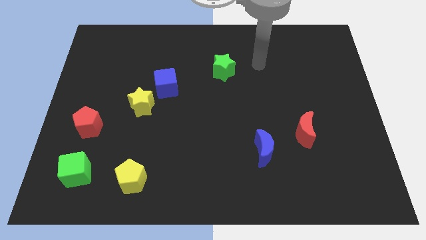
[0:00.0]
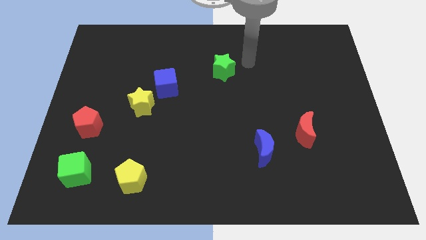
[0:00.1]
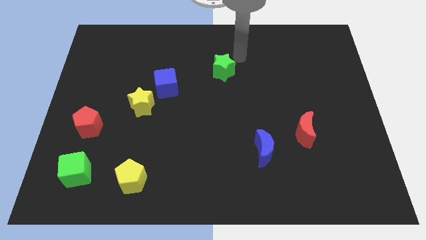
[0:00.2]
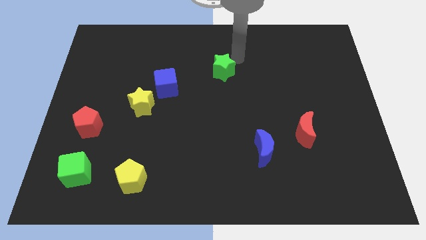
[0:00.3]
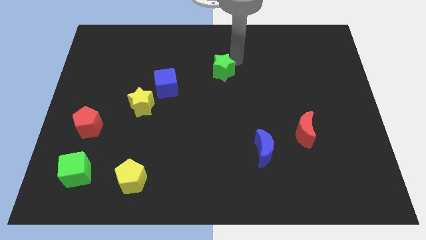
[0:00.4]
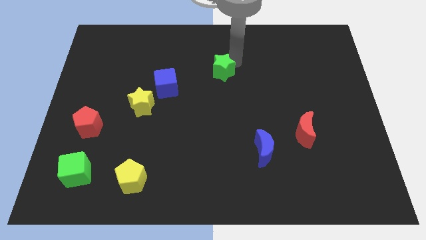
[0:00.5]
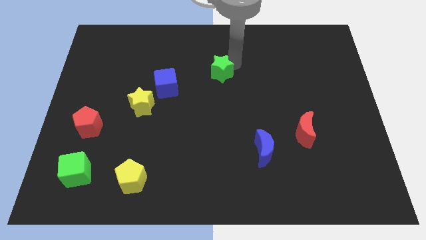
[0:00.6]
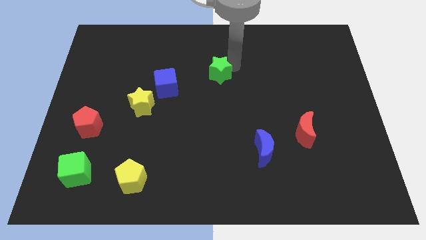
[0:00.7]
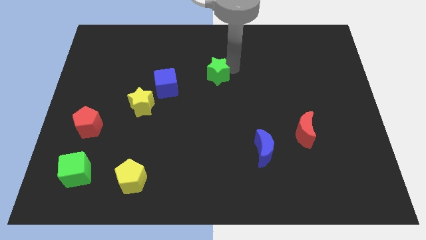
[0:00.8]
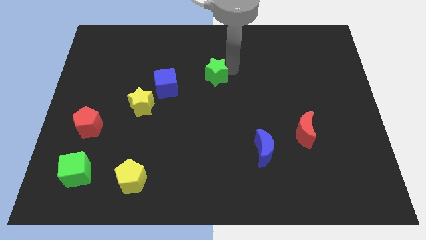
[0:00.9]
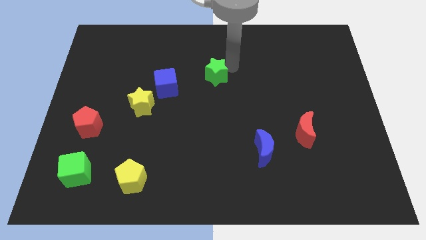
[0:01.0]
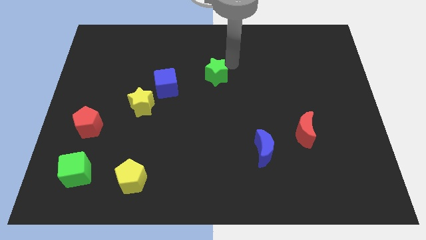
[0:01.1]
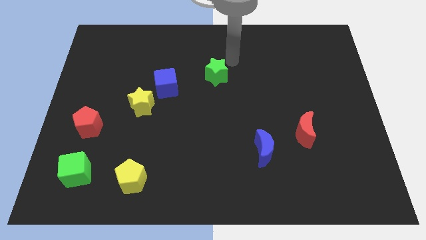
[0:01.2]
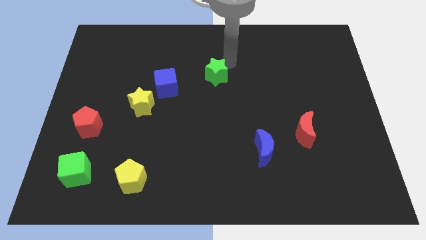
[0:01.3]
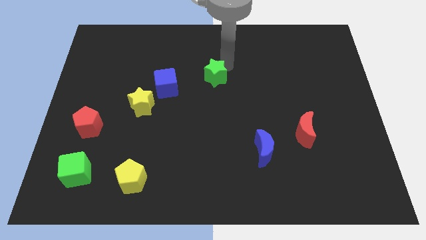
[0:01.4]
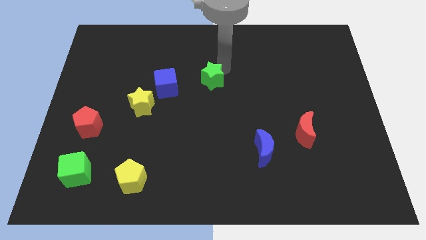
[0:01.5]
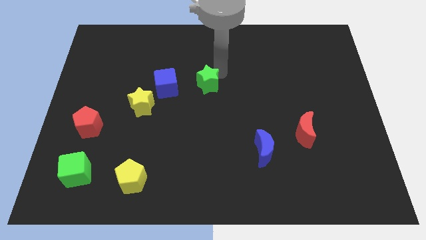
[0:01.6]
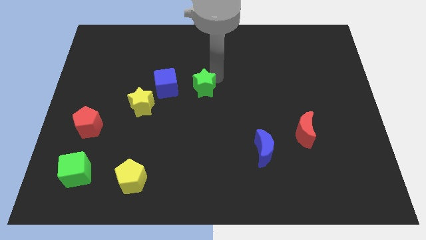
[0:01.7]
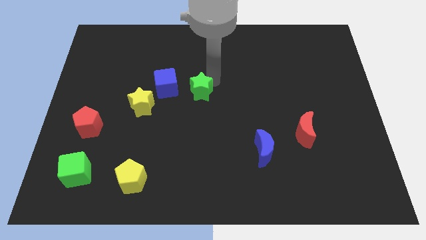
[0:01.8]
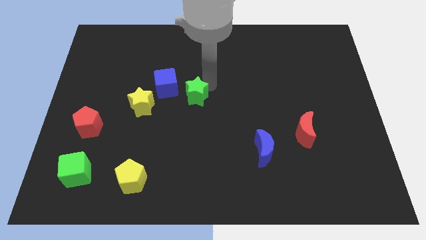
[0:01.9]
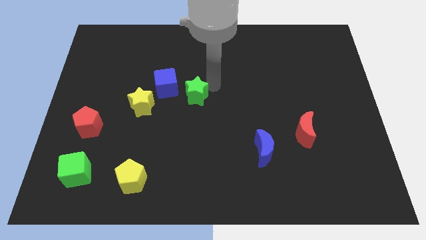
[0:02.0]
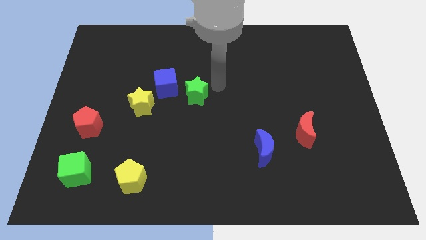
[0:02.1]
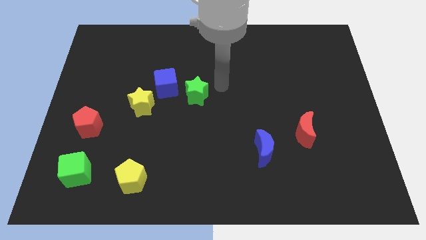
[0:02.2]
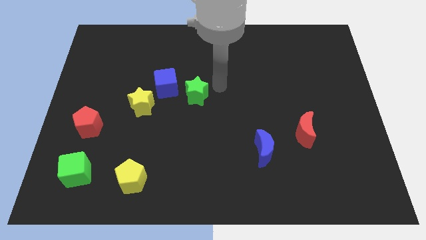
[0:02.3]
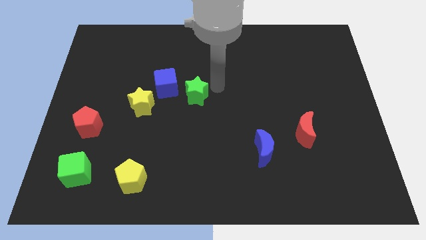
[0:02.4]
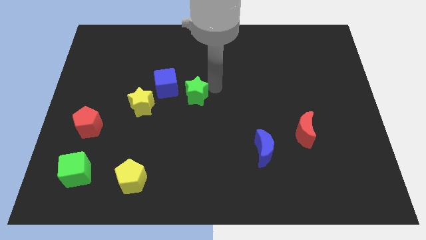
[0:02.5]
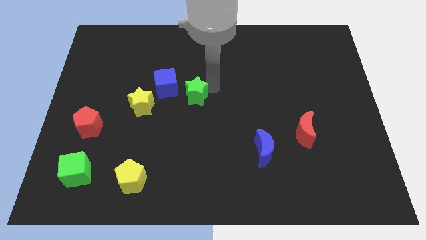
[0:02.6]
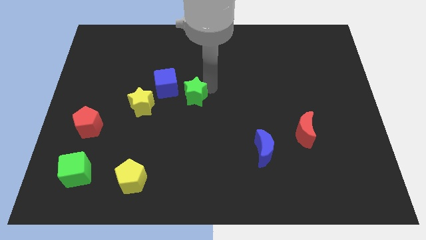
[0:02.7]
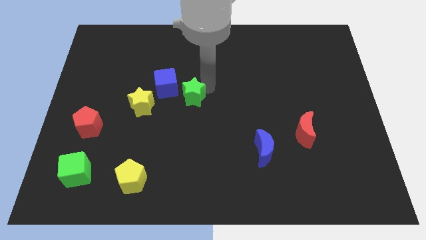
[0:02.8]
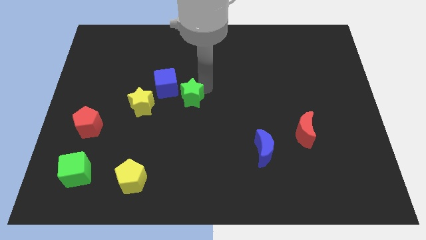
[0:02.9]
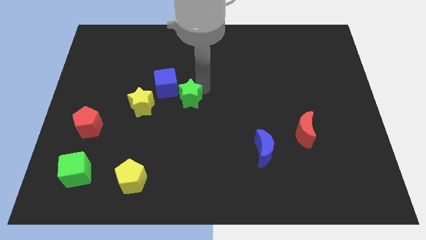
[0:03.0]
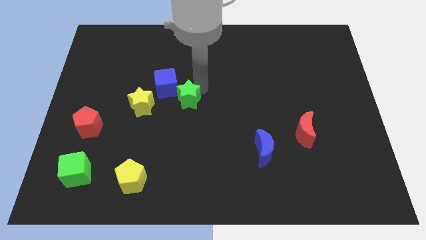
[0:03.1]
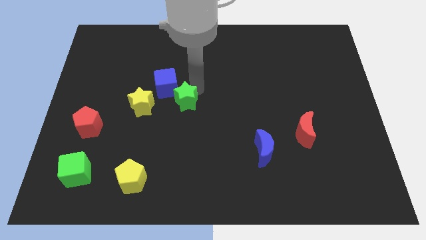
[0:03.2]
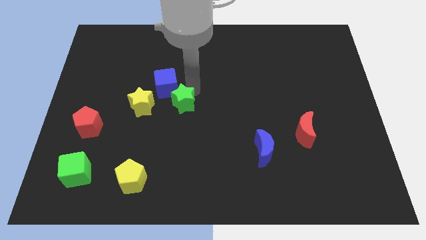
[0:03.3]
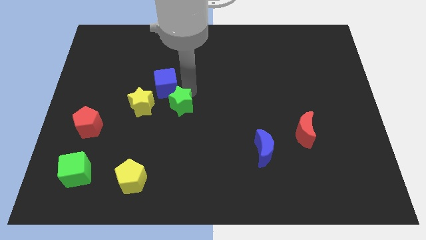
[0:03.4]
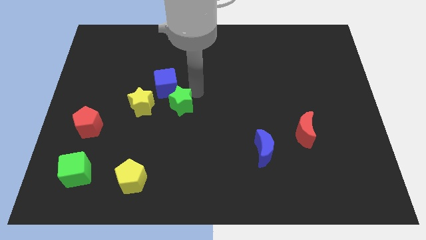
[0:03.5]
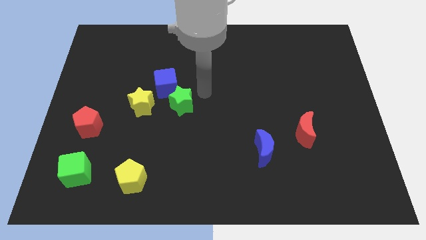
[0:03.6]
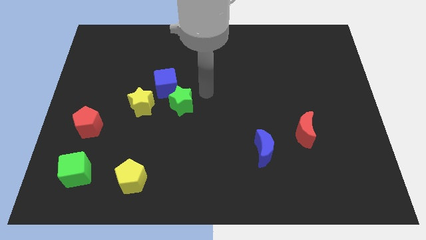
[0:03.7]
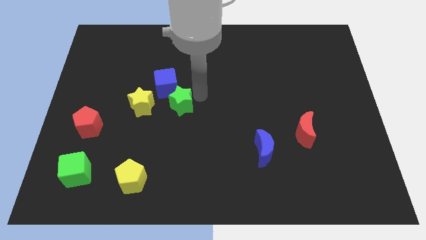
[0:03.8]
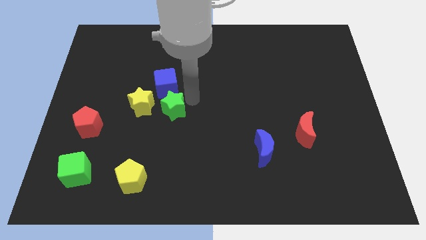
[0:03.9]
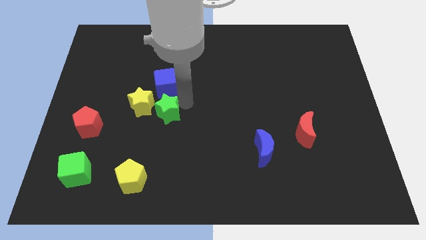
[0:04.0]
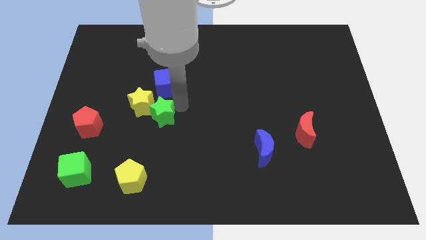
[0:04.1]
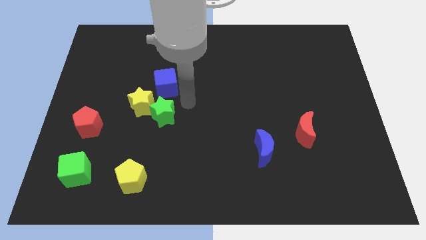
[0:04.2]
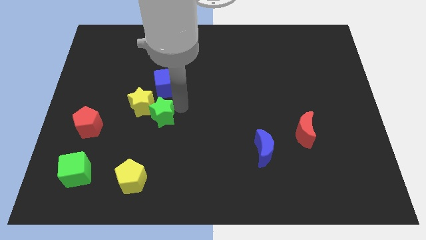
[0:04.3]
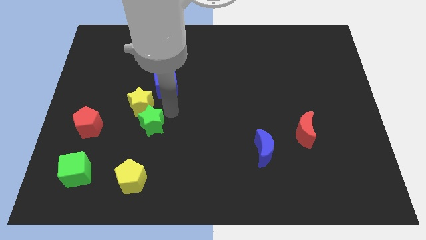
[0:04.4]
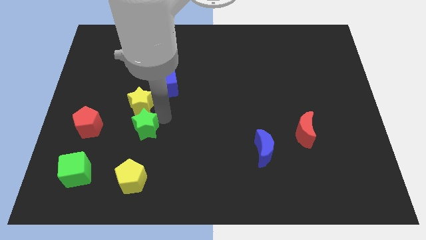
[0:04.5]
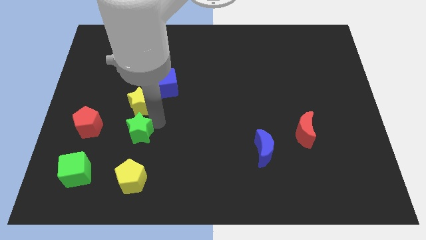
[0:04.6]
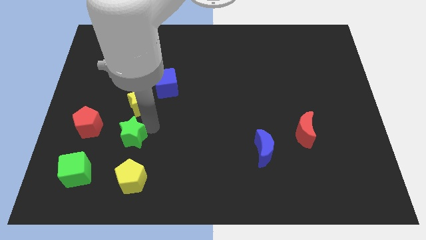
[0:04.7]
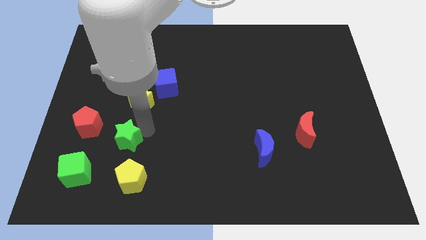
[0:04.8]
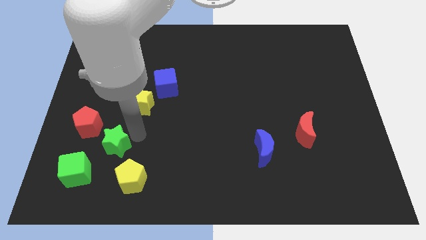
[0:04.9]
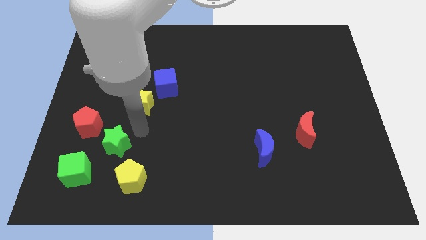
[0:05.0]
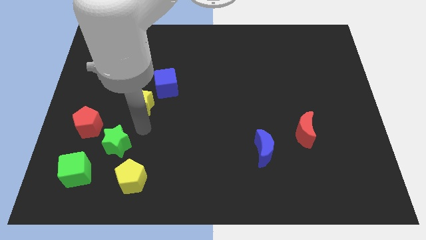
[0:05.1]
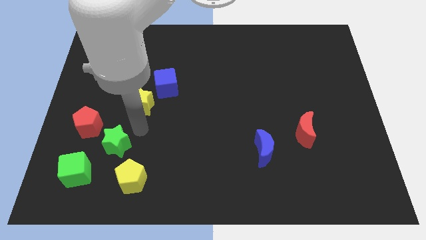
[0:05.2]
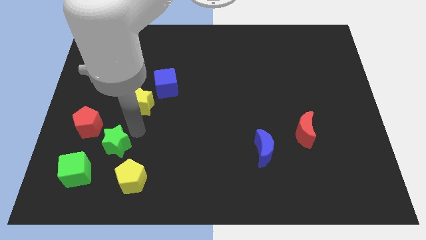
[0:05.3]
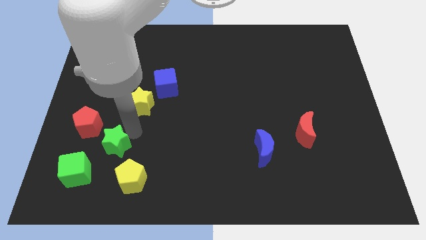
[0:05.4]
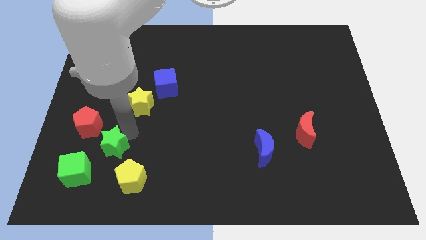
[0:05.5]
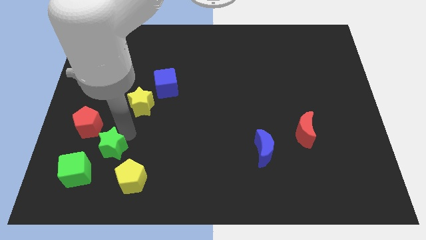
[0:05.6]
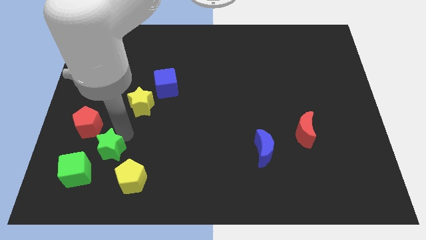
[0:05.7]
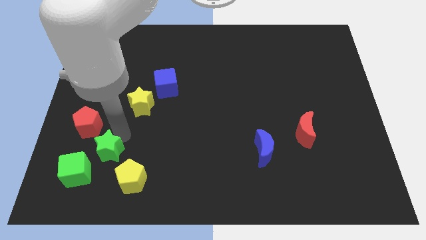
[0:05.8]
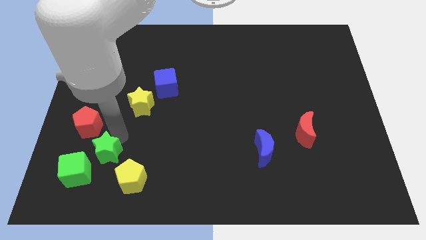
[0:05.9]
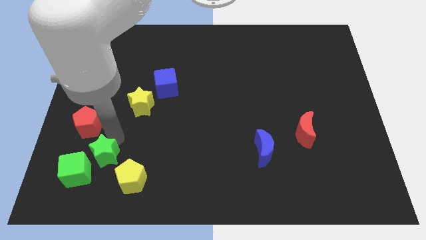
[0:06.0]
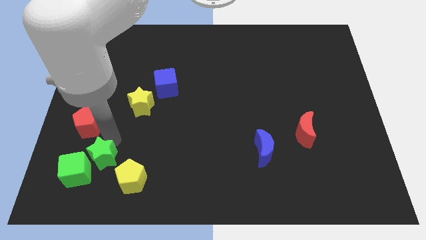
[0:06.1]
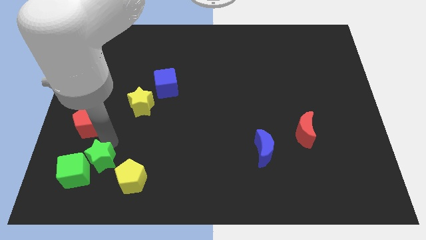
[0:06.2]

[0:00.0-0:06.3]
put the green star close to the green cube

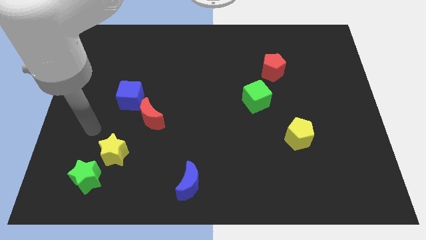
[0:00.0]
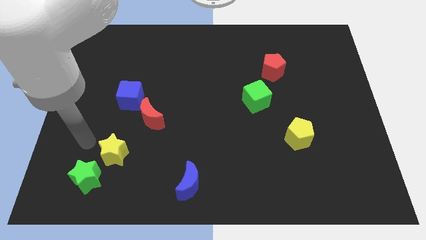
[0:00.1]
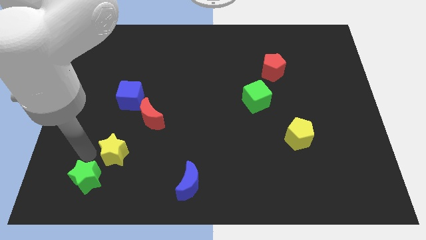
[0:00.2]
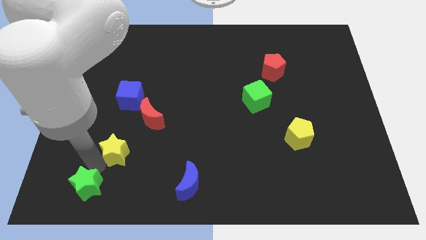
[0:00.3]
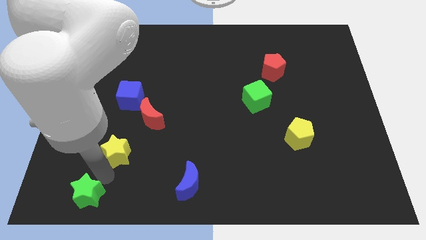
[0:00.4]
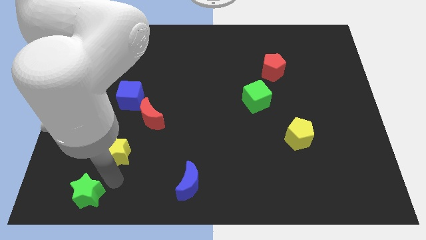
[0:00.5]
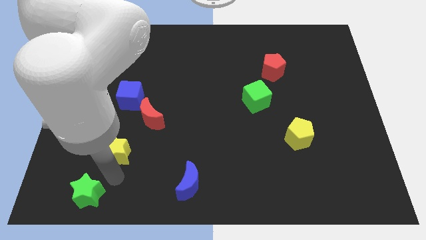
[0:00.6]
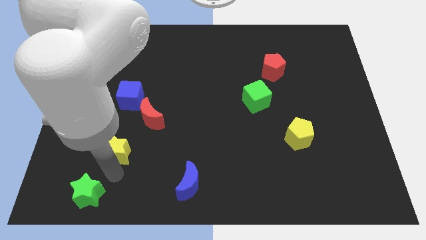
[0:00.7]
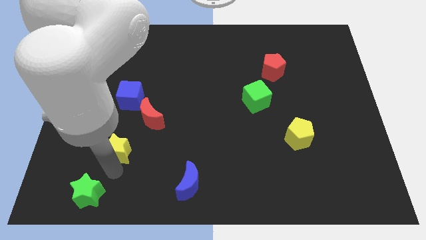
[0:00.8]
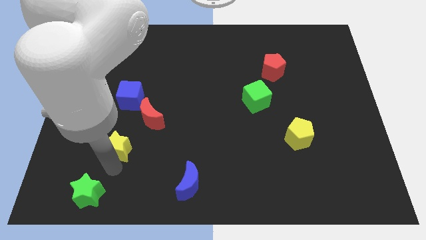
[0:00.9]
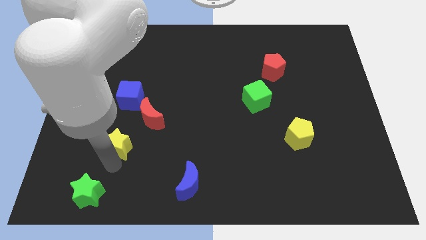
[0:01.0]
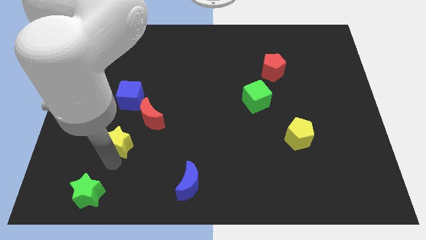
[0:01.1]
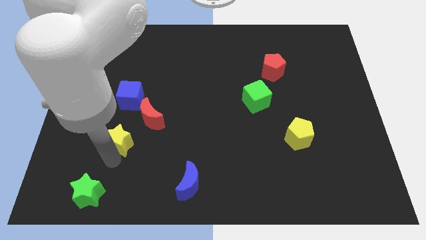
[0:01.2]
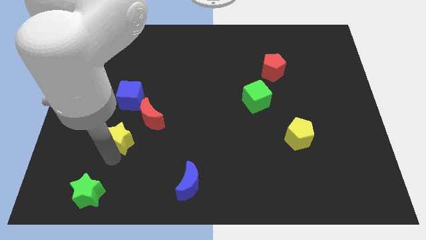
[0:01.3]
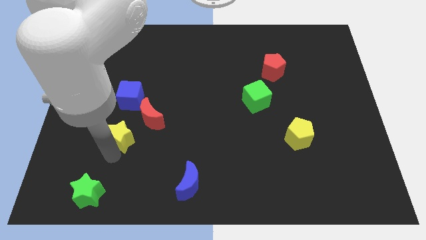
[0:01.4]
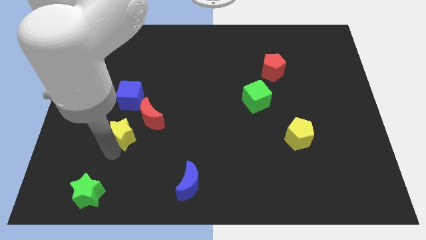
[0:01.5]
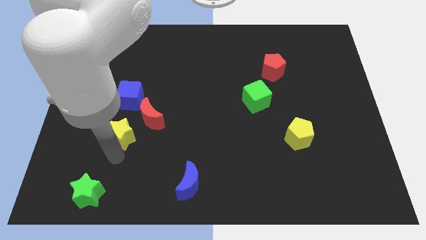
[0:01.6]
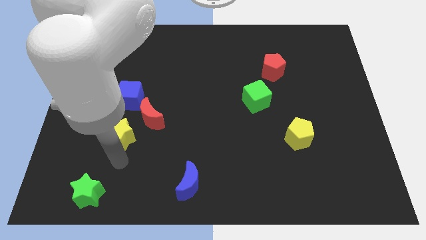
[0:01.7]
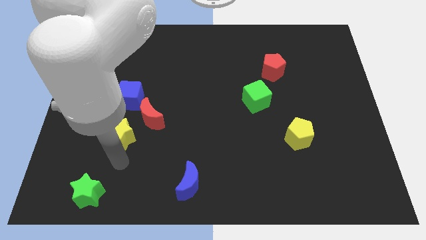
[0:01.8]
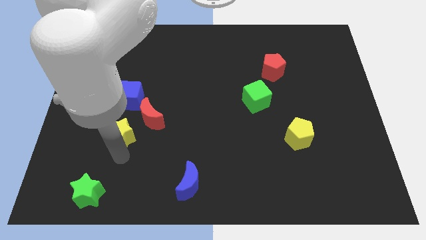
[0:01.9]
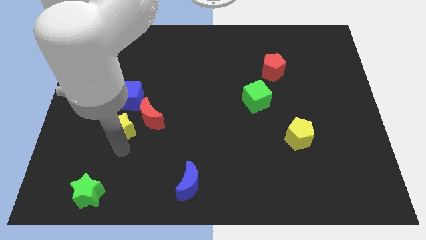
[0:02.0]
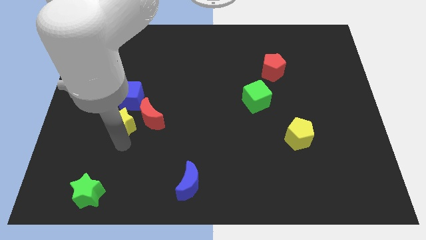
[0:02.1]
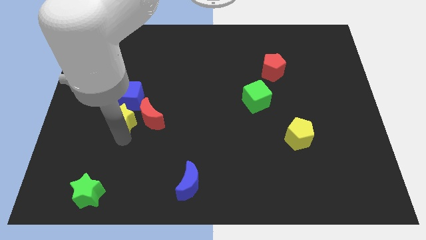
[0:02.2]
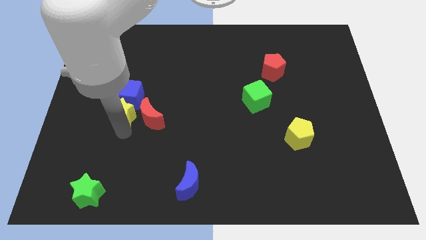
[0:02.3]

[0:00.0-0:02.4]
move the yellow star to the blue cube
